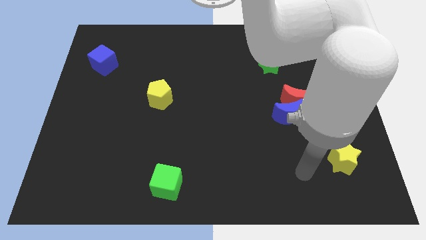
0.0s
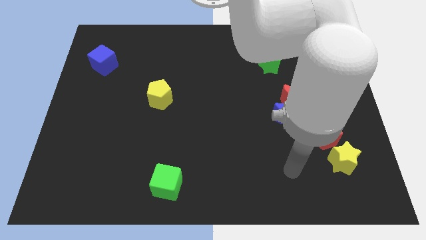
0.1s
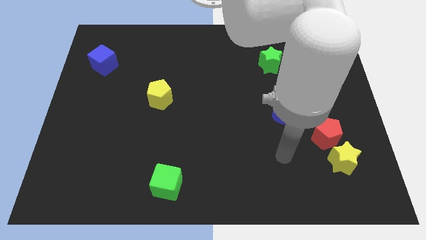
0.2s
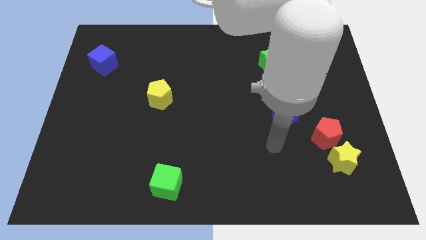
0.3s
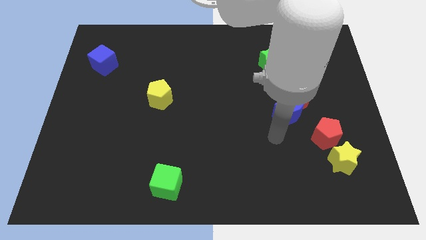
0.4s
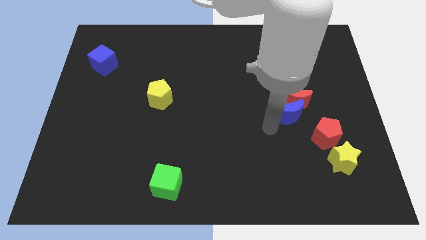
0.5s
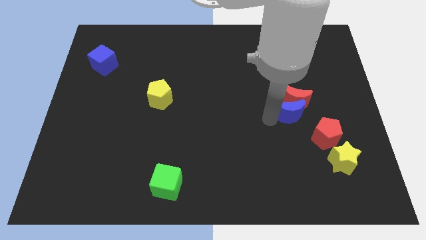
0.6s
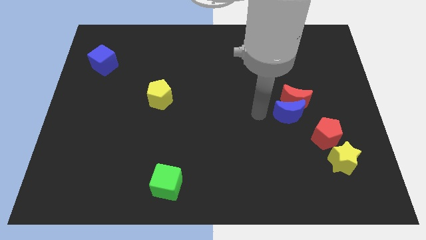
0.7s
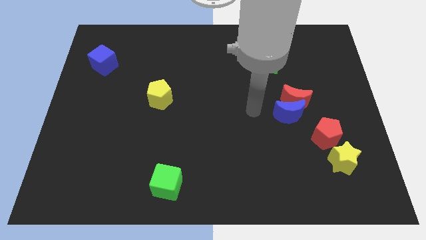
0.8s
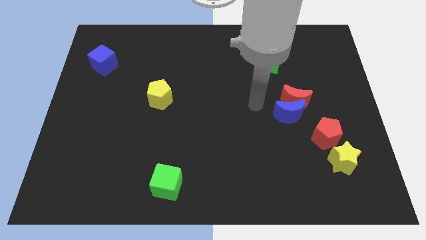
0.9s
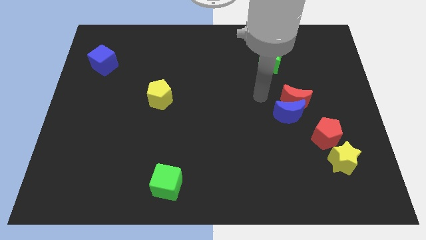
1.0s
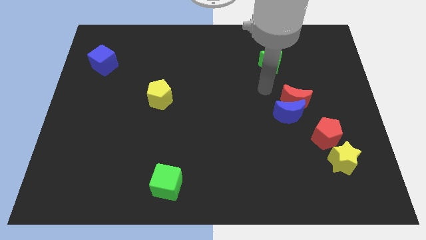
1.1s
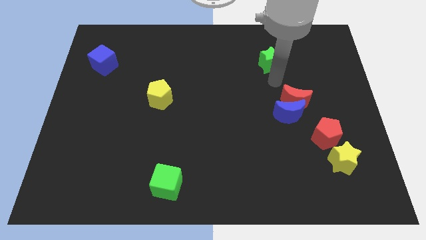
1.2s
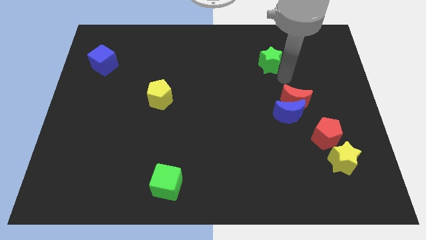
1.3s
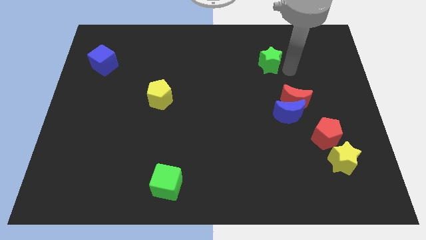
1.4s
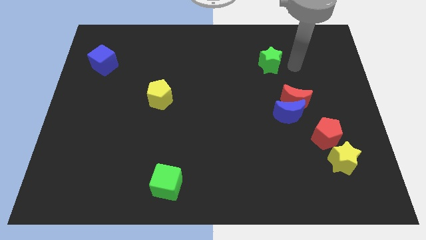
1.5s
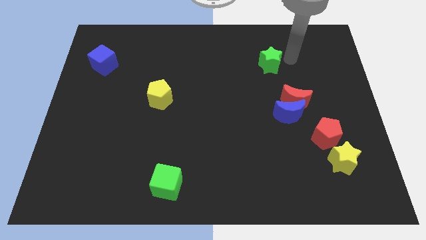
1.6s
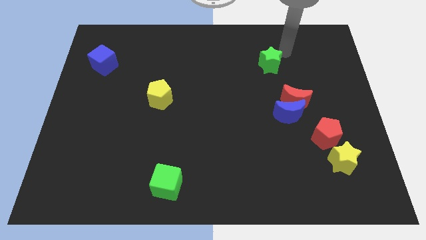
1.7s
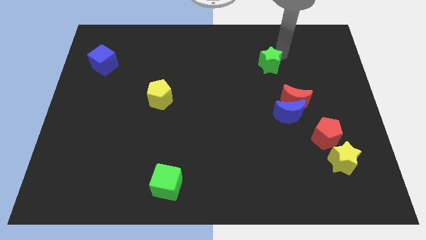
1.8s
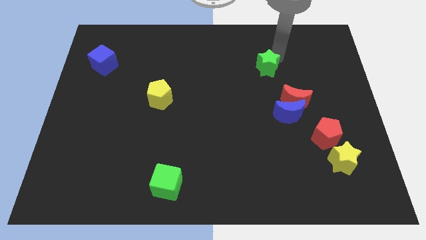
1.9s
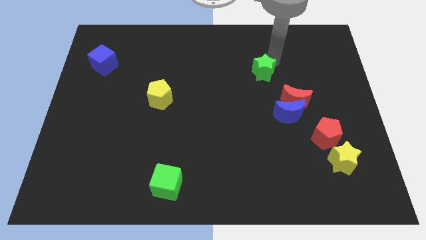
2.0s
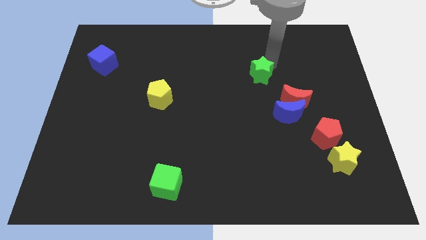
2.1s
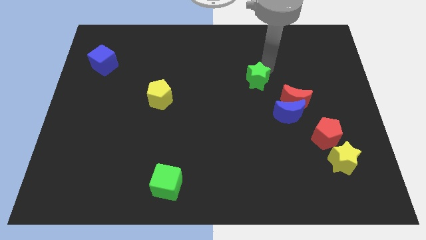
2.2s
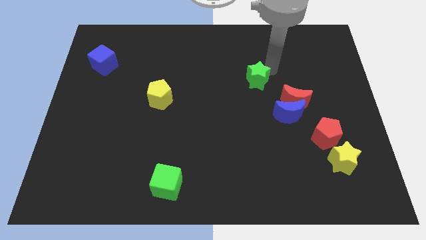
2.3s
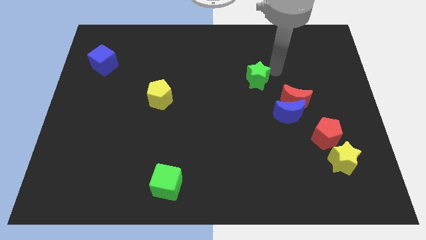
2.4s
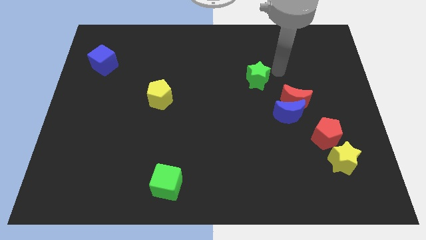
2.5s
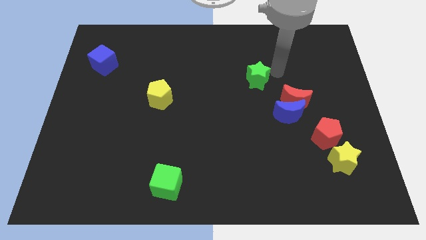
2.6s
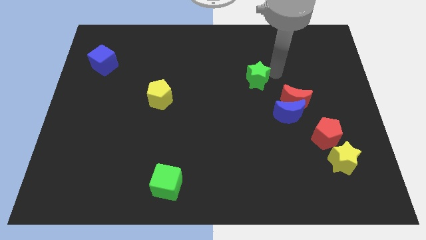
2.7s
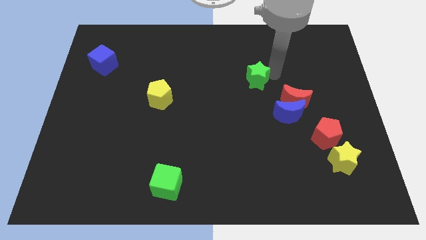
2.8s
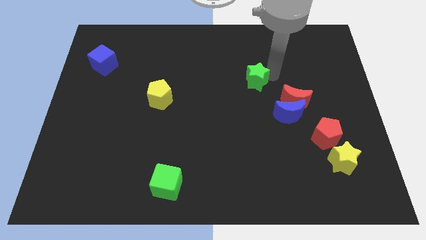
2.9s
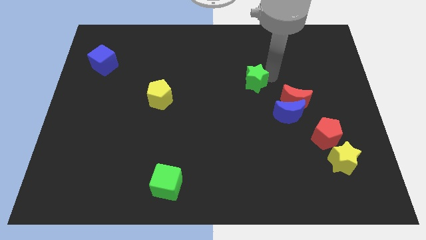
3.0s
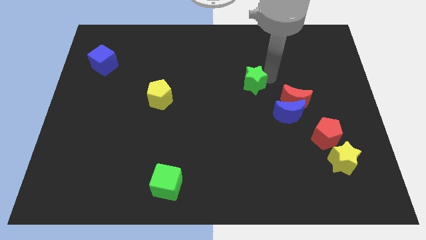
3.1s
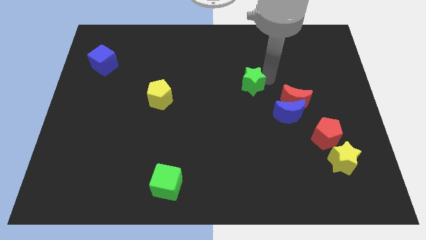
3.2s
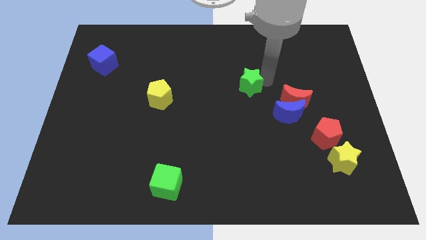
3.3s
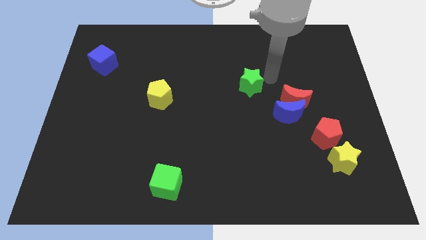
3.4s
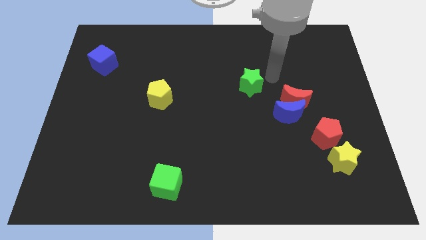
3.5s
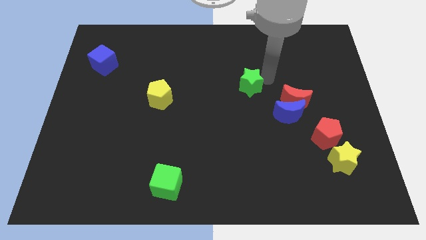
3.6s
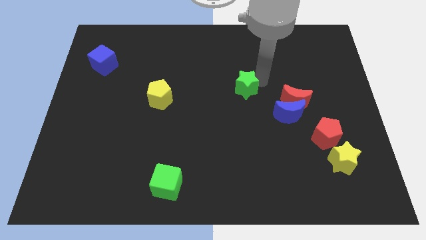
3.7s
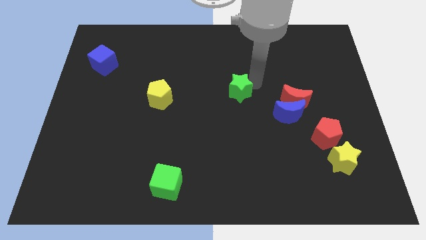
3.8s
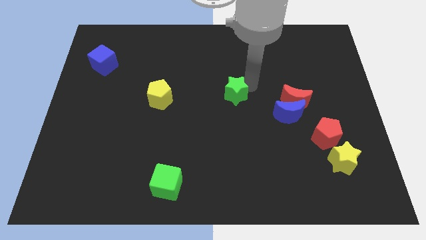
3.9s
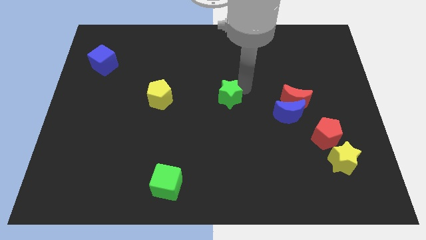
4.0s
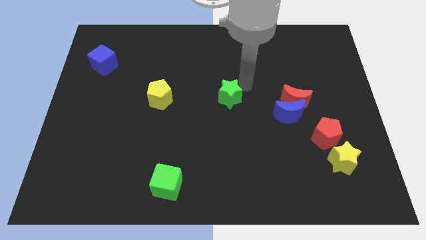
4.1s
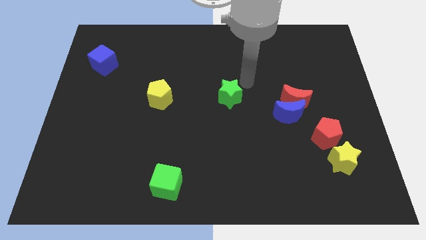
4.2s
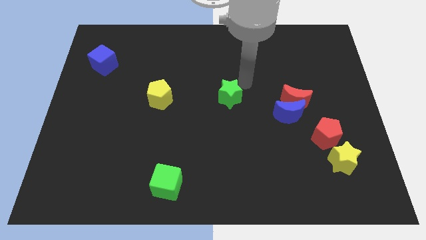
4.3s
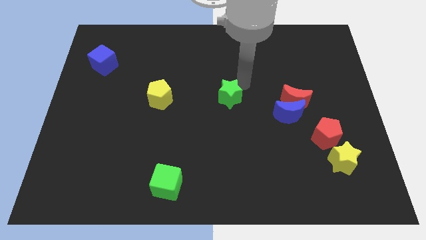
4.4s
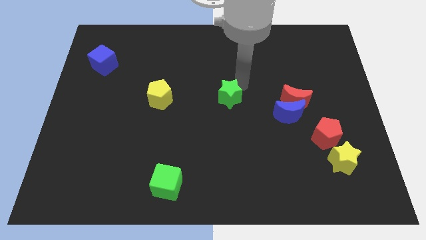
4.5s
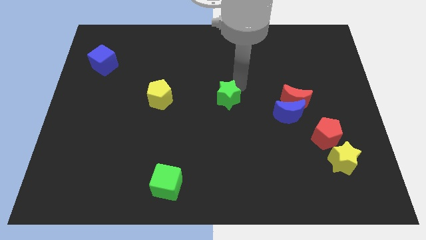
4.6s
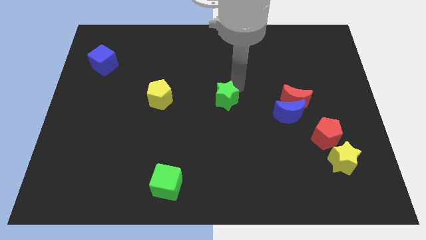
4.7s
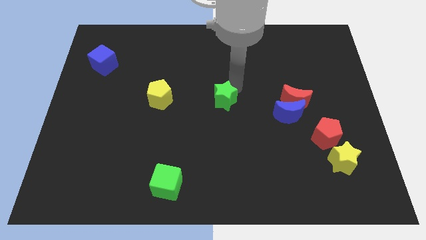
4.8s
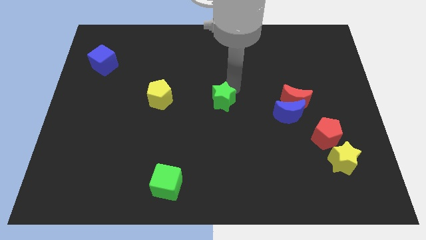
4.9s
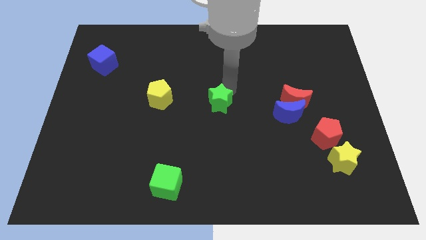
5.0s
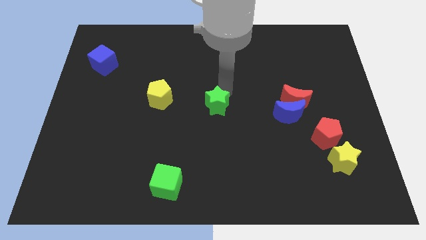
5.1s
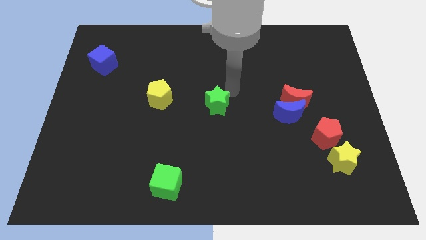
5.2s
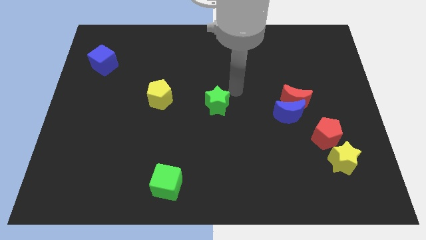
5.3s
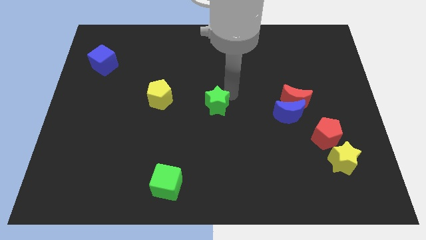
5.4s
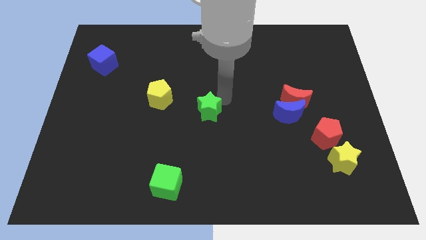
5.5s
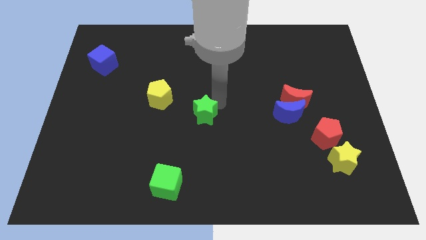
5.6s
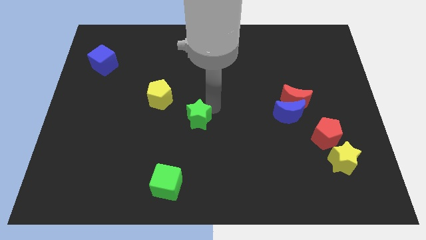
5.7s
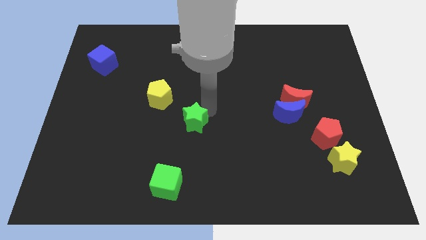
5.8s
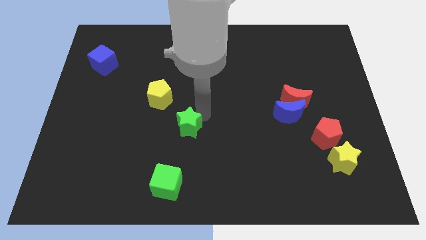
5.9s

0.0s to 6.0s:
put the green star to the top of the green cube

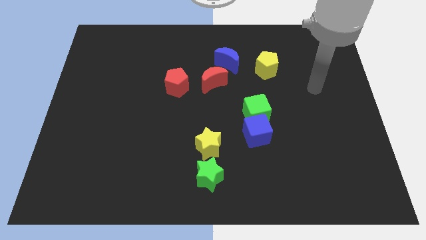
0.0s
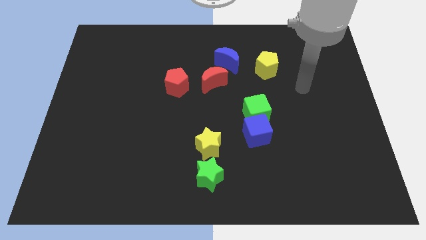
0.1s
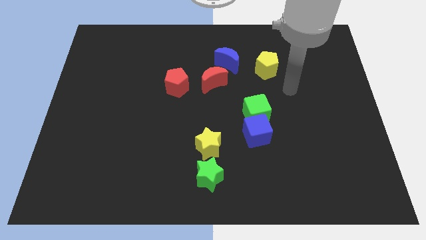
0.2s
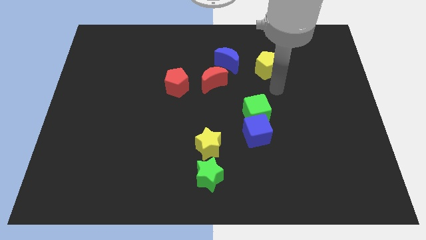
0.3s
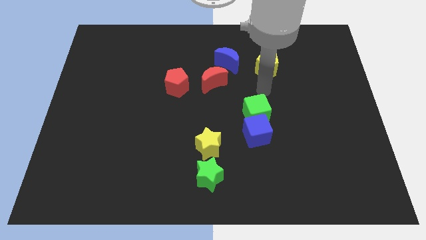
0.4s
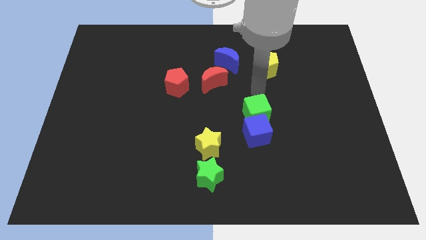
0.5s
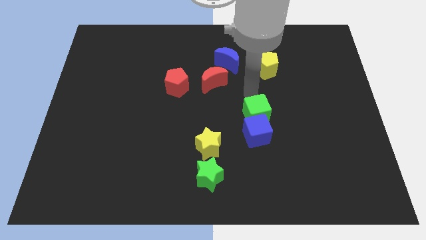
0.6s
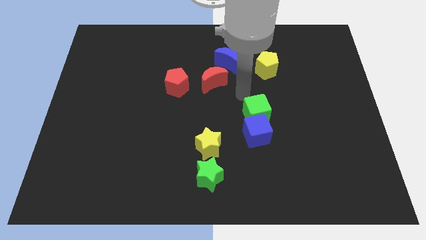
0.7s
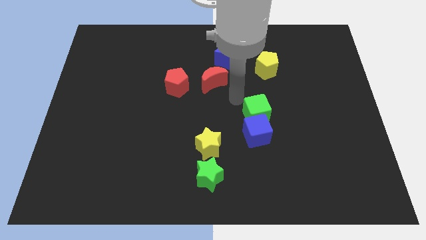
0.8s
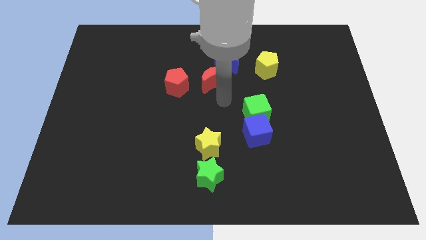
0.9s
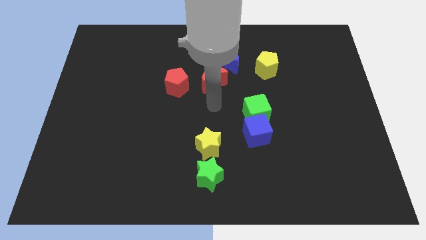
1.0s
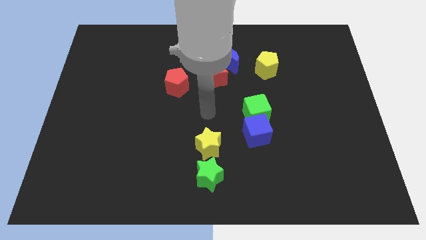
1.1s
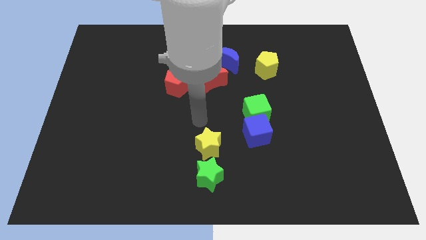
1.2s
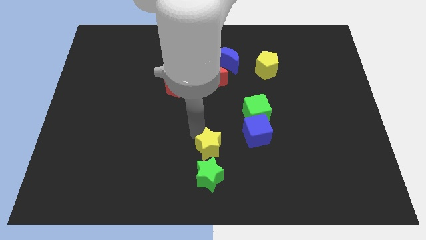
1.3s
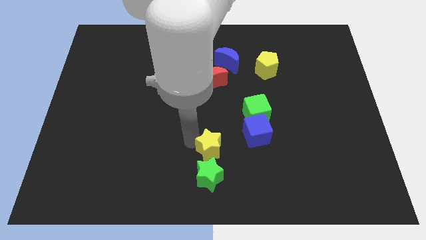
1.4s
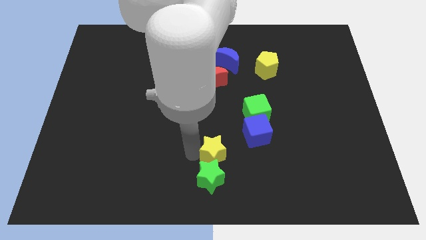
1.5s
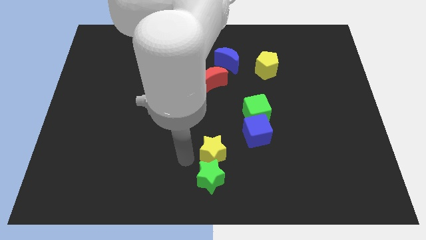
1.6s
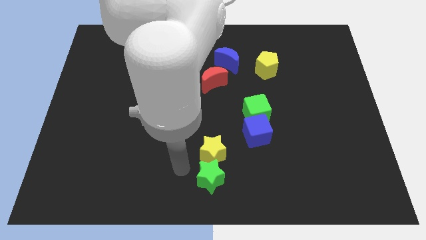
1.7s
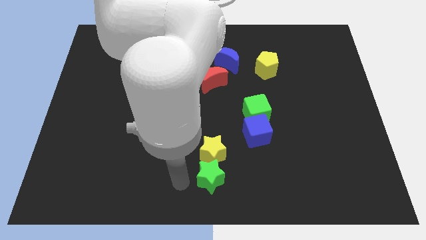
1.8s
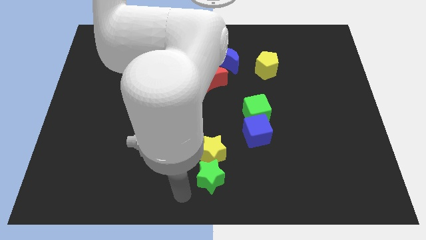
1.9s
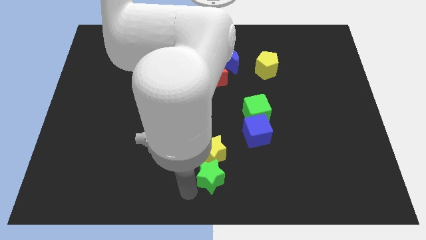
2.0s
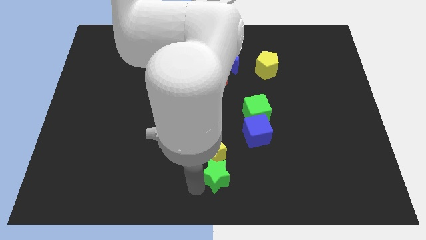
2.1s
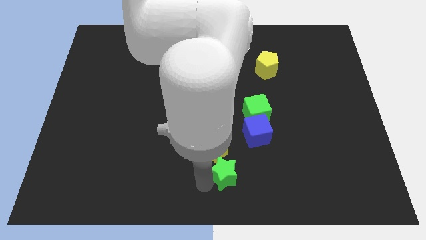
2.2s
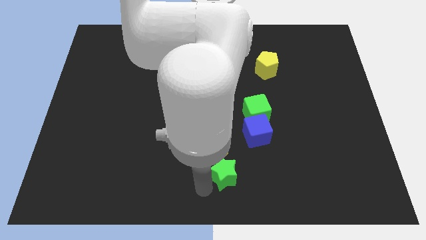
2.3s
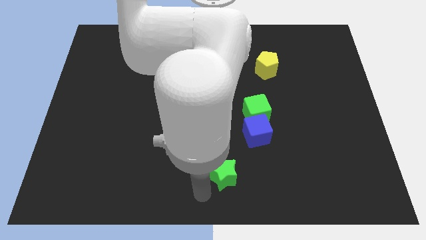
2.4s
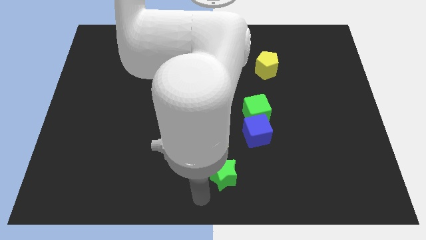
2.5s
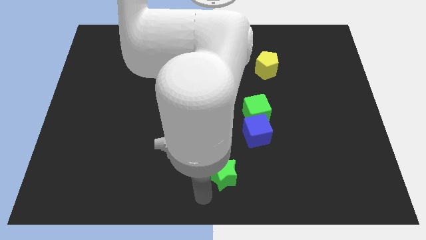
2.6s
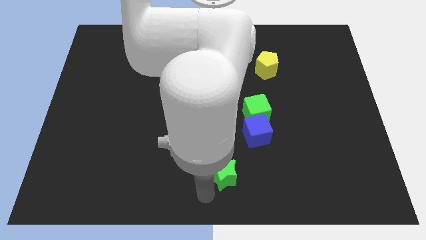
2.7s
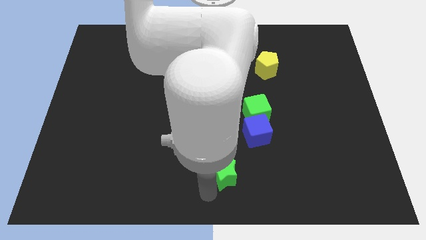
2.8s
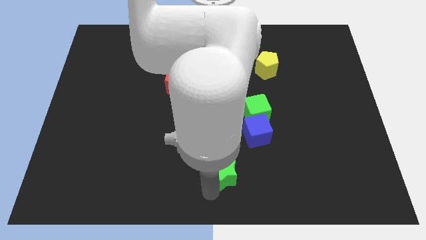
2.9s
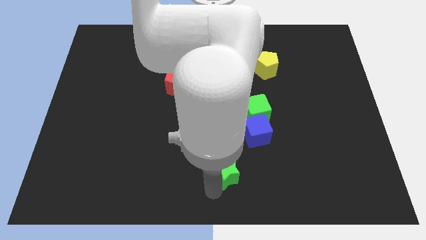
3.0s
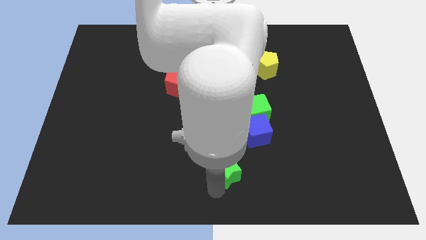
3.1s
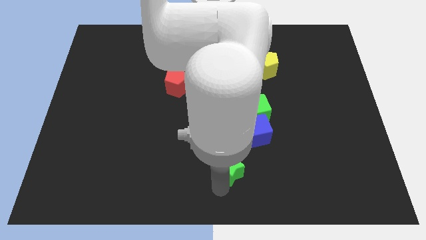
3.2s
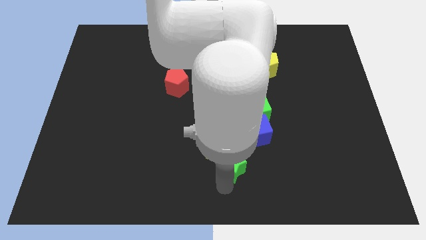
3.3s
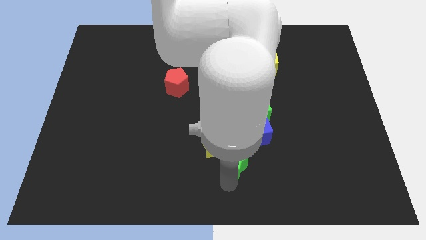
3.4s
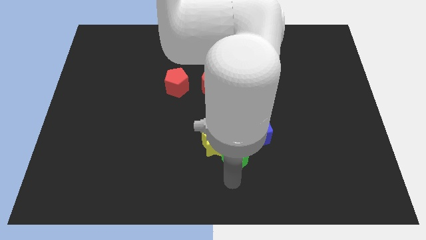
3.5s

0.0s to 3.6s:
put the green star to the right side of the yellow star
